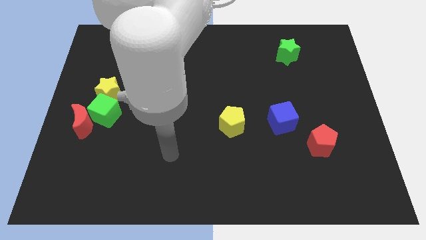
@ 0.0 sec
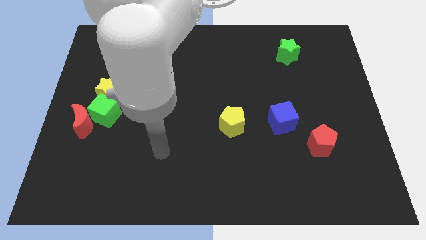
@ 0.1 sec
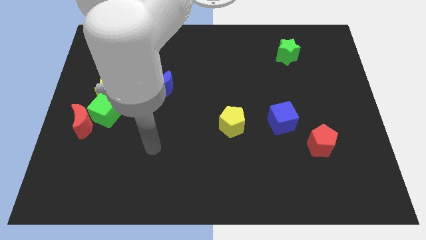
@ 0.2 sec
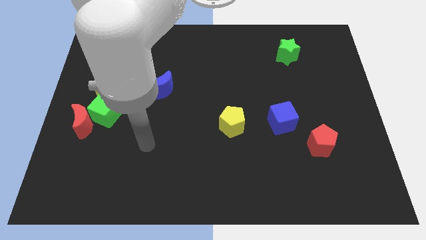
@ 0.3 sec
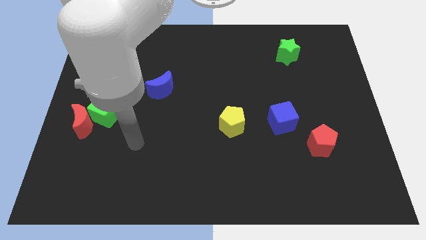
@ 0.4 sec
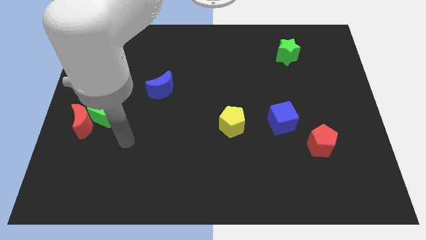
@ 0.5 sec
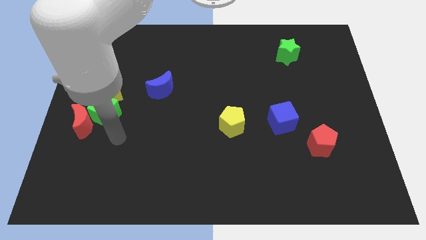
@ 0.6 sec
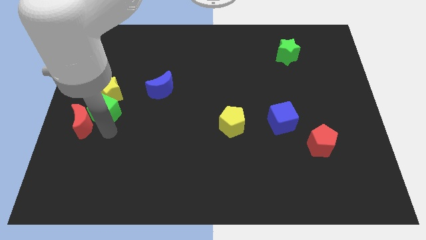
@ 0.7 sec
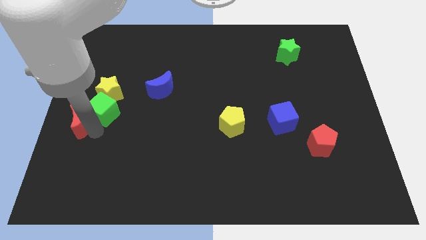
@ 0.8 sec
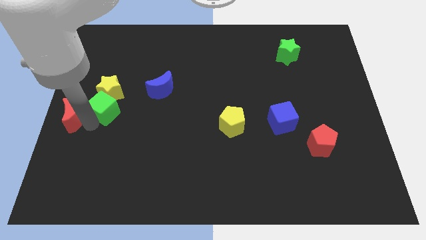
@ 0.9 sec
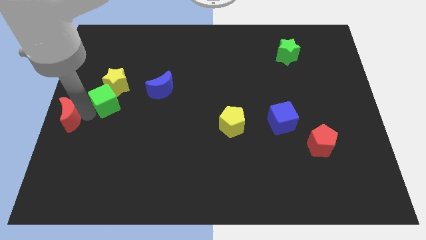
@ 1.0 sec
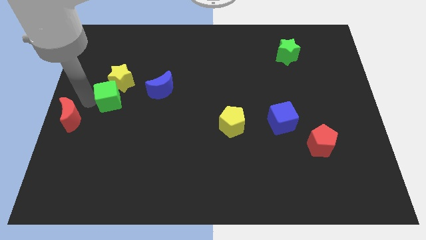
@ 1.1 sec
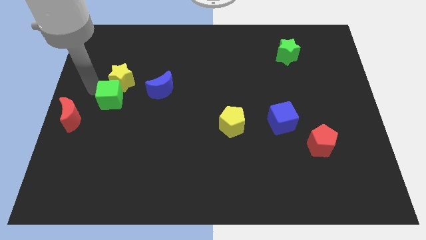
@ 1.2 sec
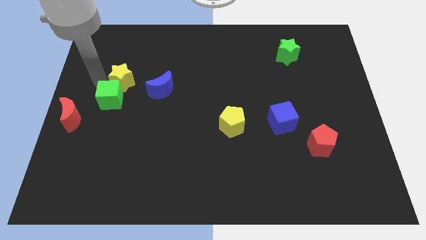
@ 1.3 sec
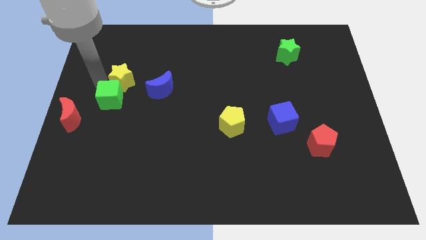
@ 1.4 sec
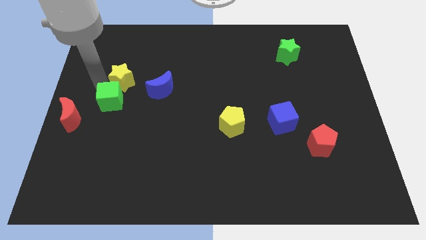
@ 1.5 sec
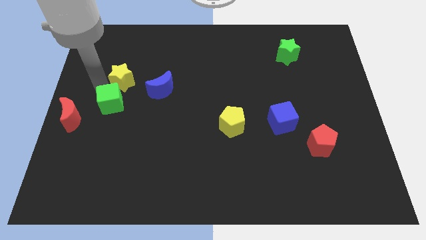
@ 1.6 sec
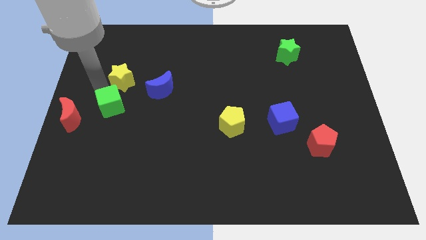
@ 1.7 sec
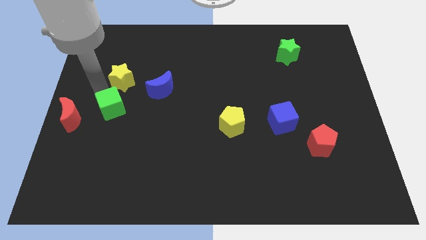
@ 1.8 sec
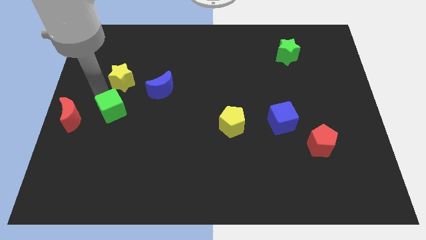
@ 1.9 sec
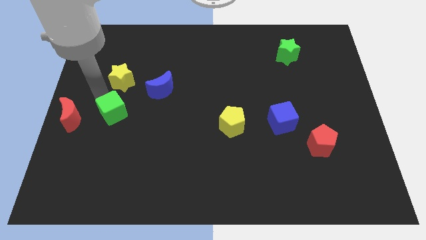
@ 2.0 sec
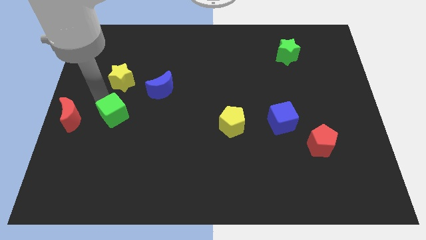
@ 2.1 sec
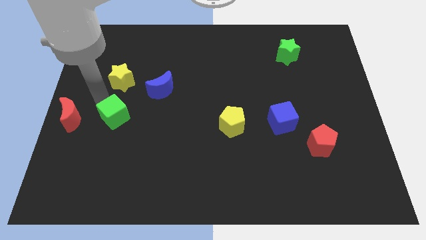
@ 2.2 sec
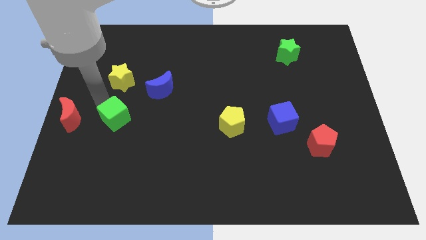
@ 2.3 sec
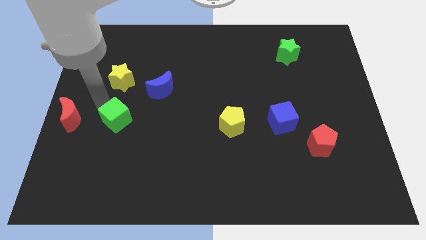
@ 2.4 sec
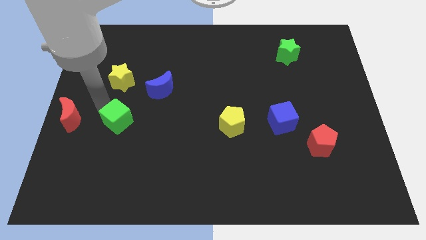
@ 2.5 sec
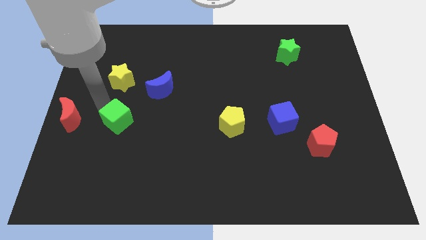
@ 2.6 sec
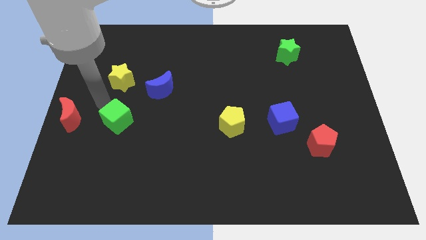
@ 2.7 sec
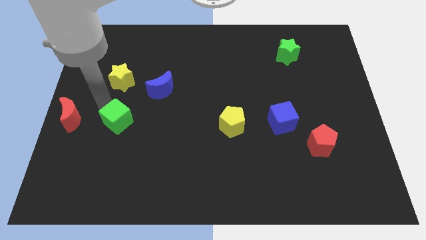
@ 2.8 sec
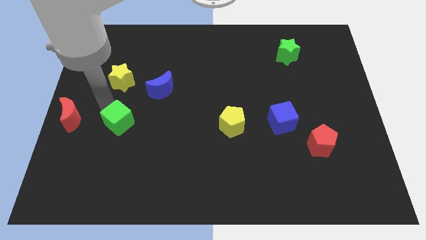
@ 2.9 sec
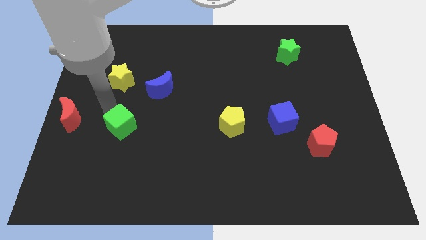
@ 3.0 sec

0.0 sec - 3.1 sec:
move the green cube away from the red moon and yellow star

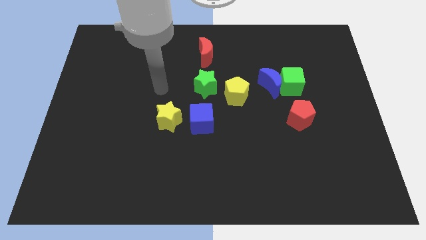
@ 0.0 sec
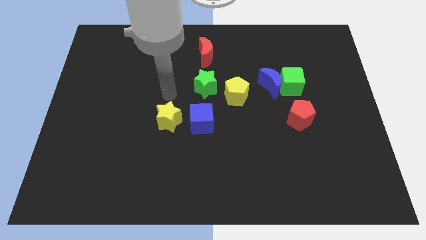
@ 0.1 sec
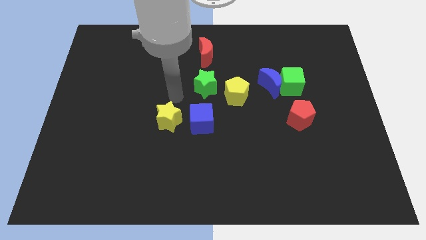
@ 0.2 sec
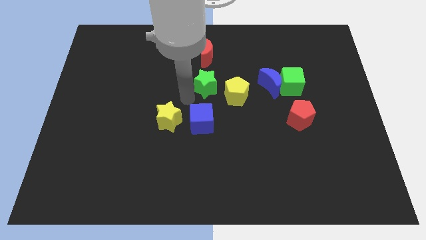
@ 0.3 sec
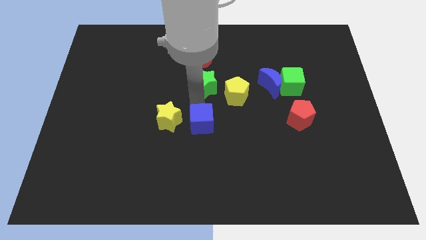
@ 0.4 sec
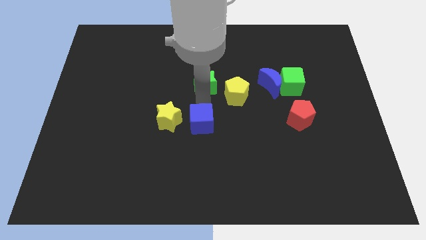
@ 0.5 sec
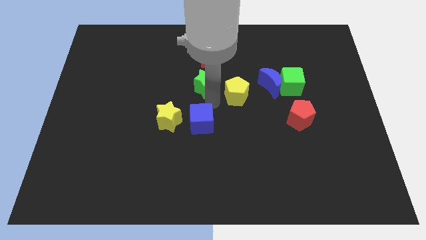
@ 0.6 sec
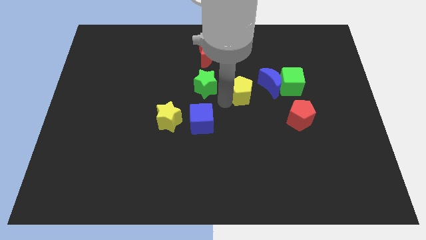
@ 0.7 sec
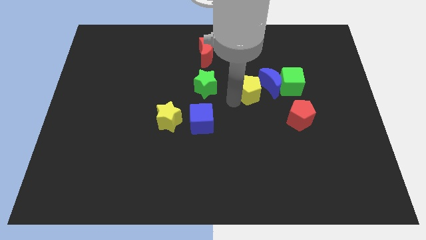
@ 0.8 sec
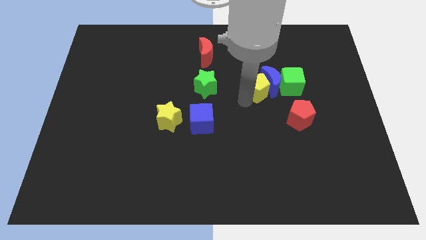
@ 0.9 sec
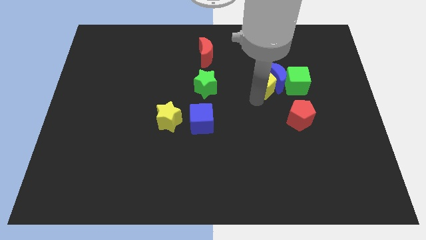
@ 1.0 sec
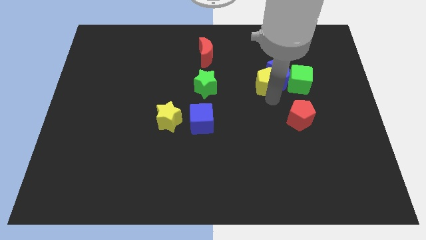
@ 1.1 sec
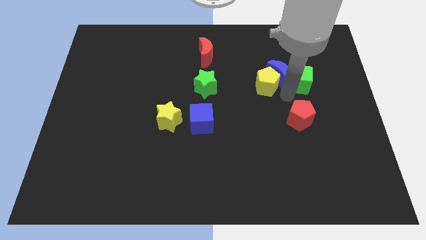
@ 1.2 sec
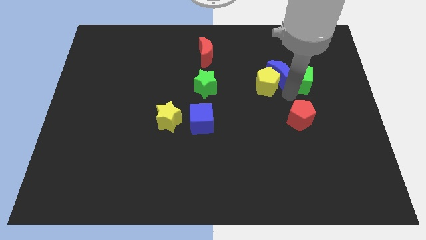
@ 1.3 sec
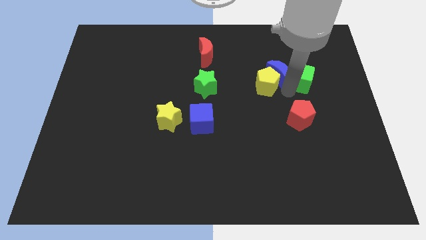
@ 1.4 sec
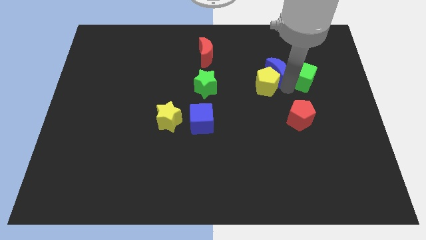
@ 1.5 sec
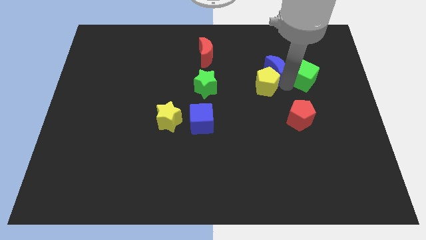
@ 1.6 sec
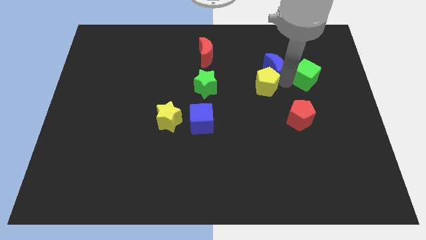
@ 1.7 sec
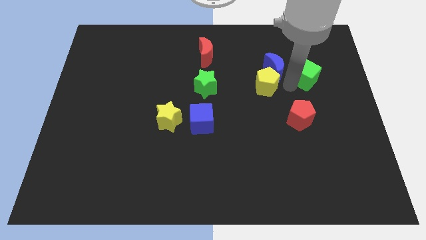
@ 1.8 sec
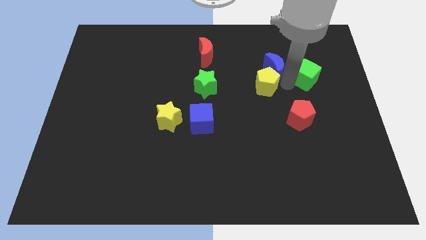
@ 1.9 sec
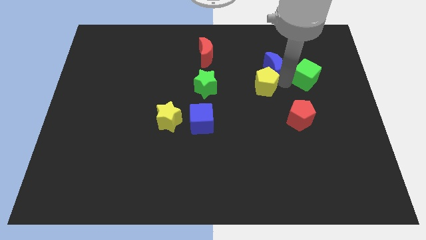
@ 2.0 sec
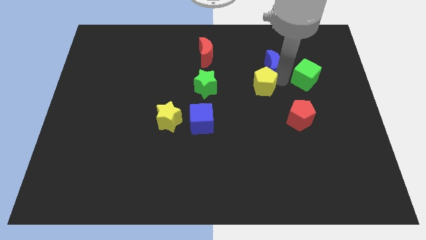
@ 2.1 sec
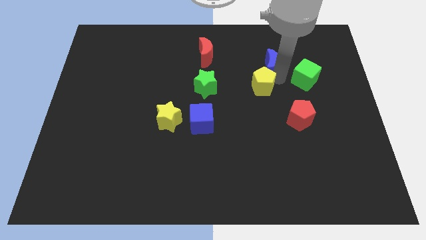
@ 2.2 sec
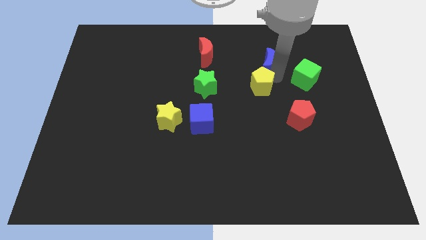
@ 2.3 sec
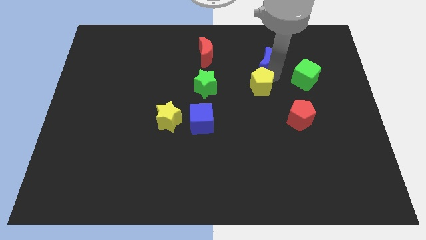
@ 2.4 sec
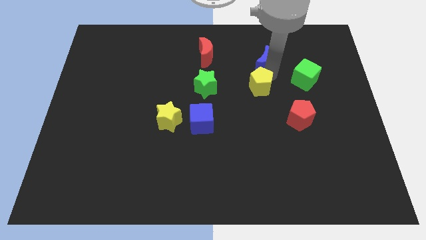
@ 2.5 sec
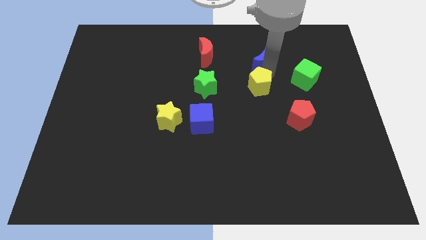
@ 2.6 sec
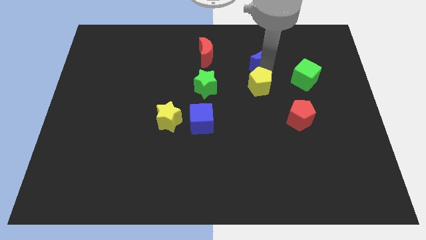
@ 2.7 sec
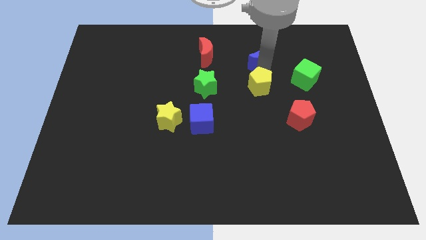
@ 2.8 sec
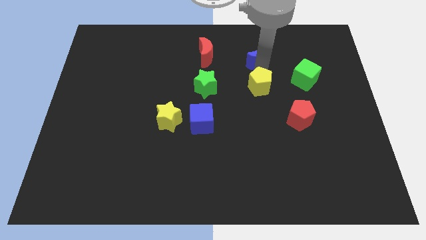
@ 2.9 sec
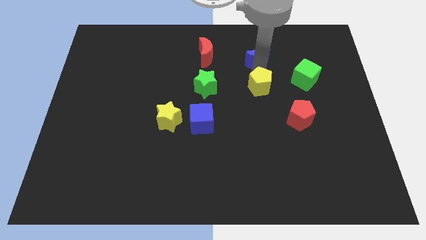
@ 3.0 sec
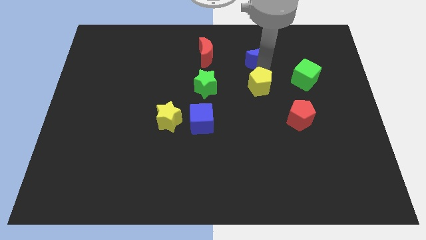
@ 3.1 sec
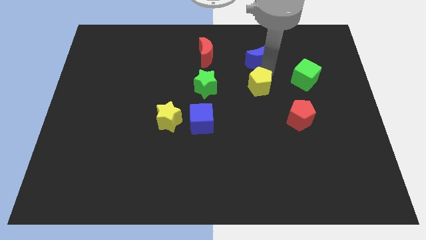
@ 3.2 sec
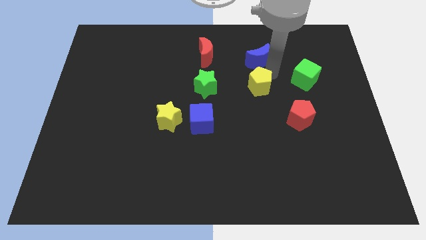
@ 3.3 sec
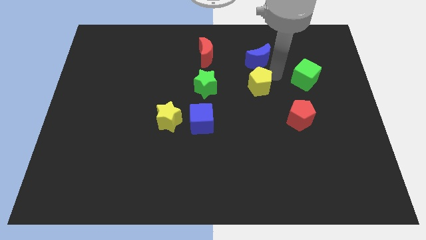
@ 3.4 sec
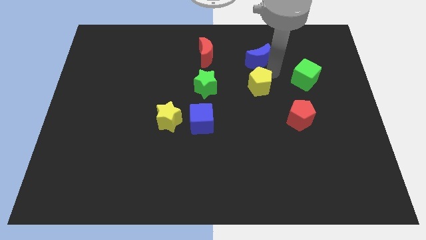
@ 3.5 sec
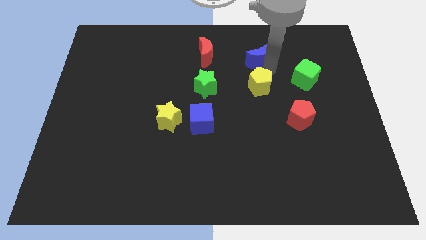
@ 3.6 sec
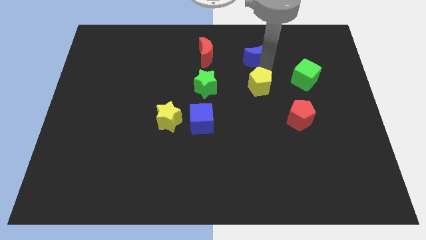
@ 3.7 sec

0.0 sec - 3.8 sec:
separate the blue moon from the green cube and yellow pentagon

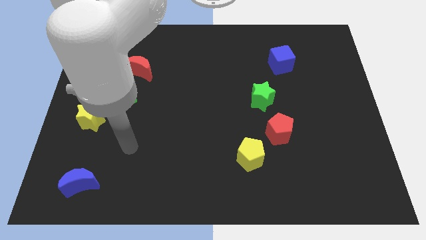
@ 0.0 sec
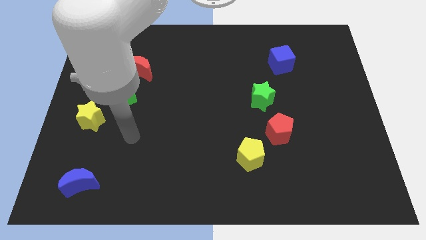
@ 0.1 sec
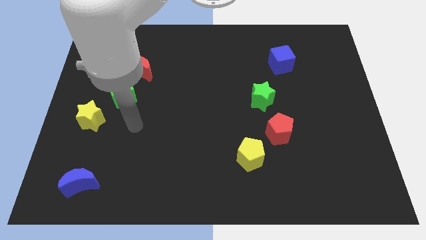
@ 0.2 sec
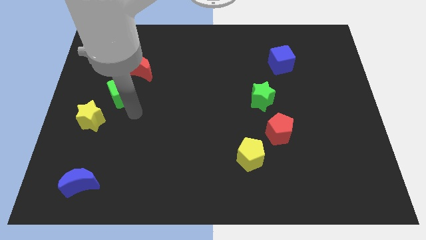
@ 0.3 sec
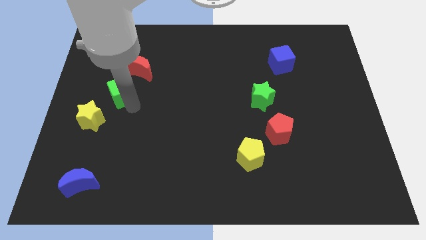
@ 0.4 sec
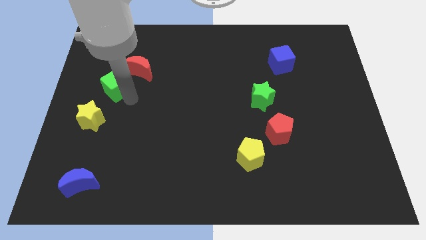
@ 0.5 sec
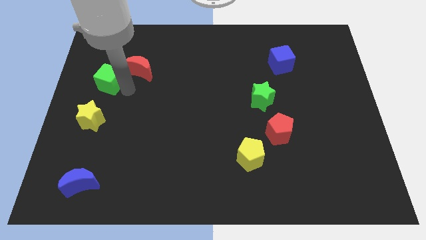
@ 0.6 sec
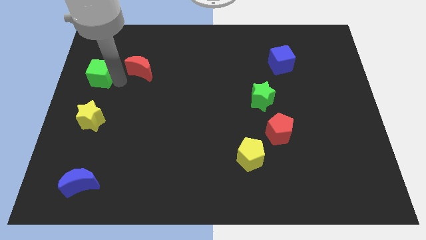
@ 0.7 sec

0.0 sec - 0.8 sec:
pull the red moon apart from the green cube

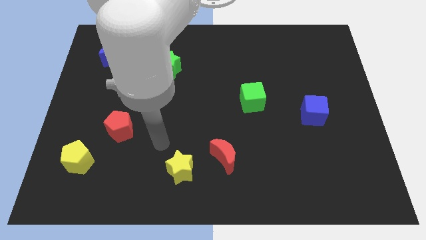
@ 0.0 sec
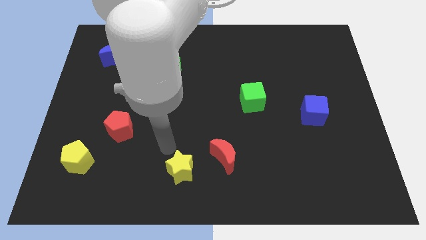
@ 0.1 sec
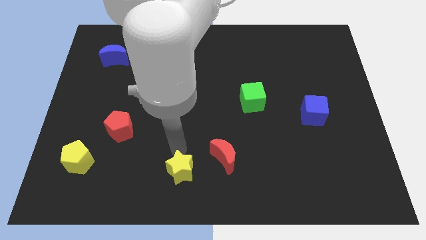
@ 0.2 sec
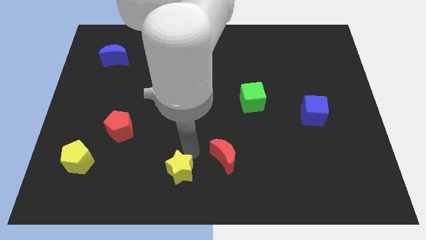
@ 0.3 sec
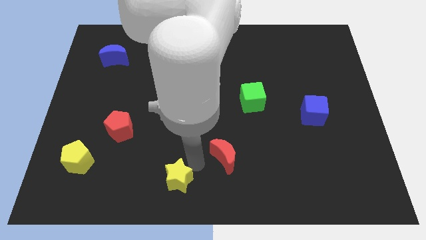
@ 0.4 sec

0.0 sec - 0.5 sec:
move the red moon away from the yellow star

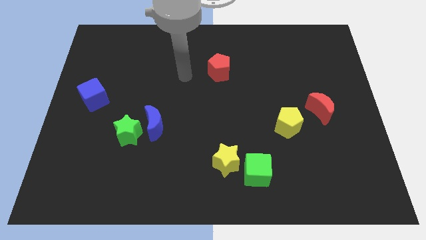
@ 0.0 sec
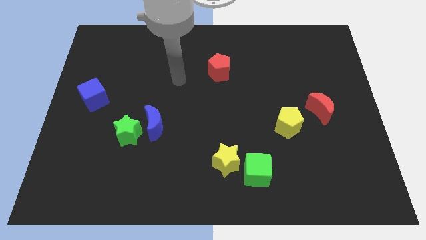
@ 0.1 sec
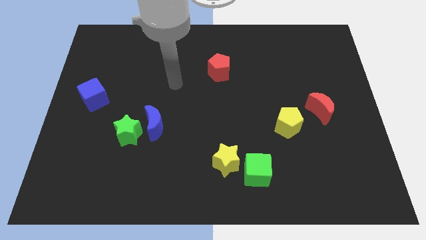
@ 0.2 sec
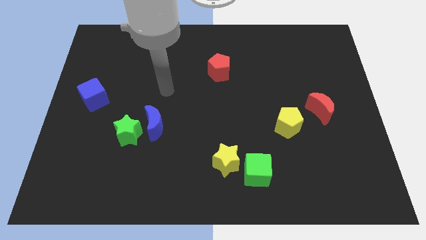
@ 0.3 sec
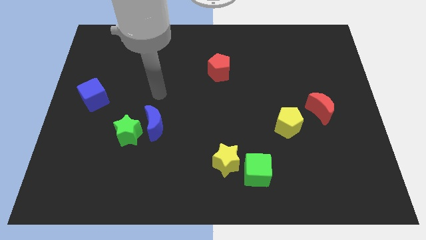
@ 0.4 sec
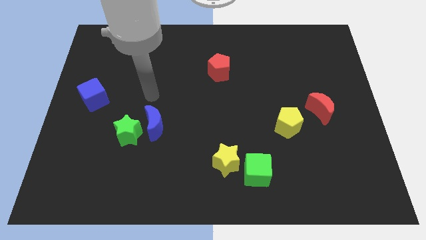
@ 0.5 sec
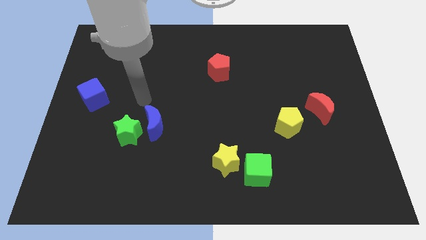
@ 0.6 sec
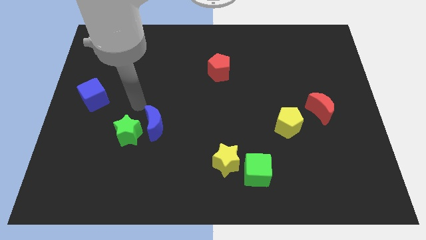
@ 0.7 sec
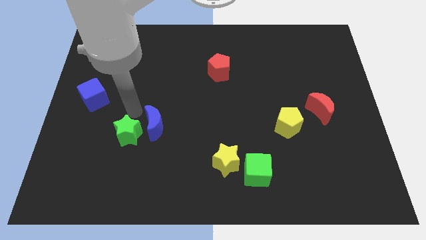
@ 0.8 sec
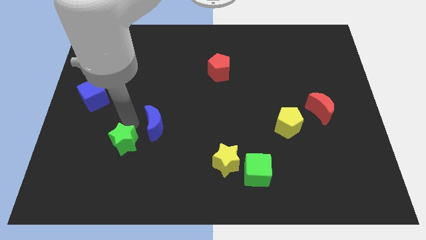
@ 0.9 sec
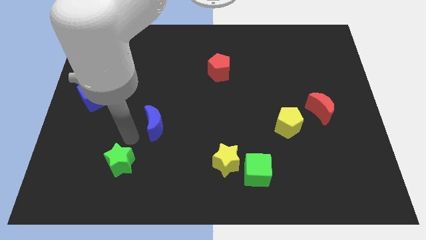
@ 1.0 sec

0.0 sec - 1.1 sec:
move the blue moon away from the green star
